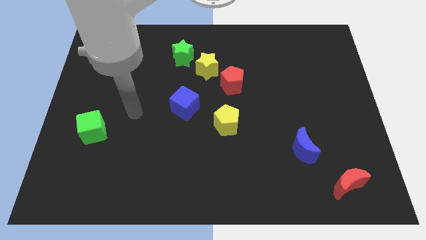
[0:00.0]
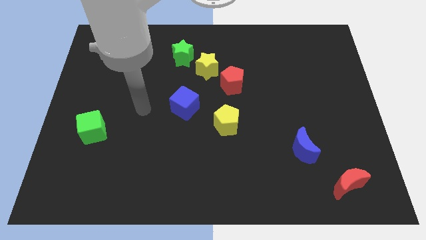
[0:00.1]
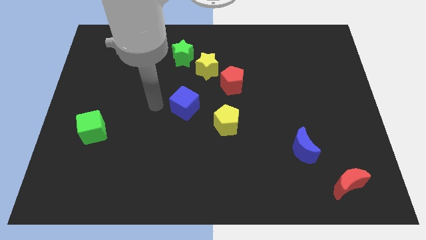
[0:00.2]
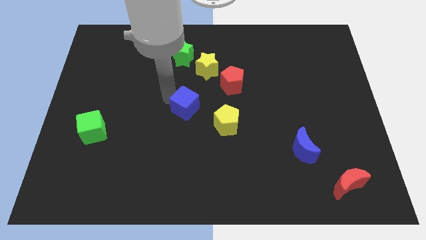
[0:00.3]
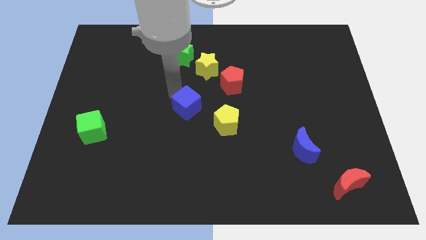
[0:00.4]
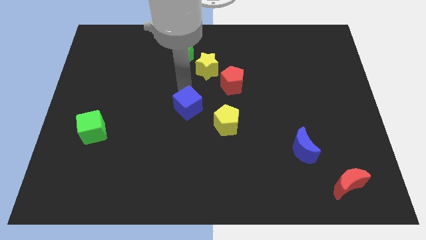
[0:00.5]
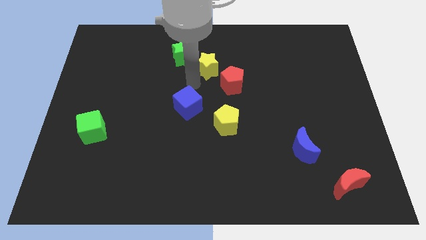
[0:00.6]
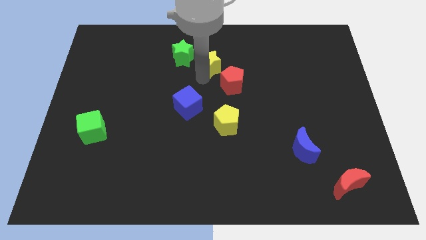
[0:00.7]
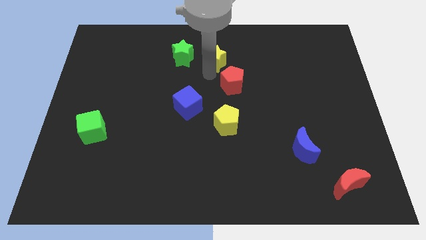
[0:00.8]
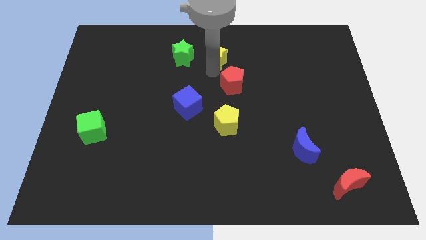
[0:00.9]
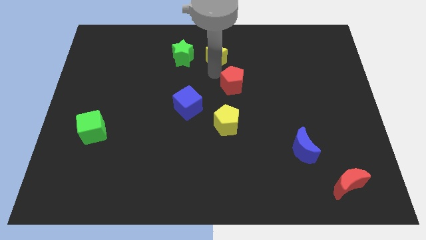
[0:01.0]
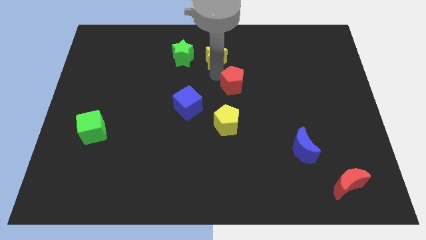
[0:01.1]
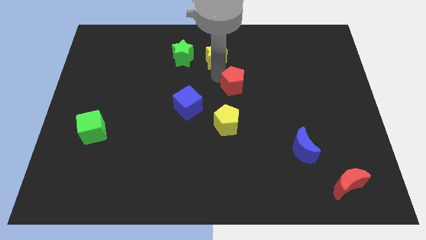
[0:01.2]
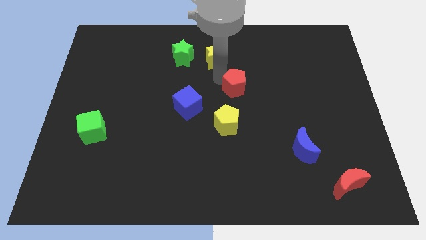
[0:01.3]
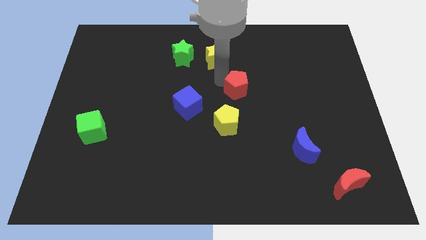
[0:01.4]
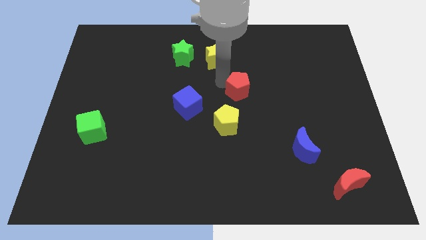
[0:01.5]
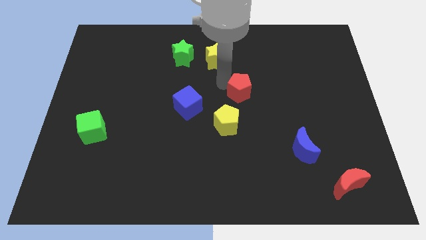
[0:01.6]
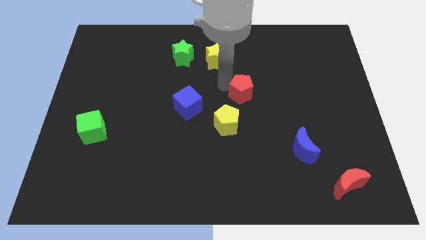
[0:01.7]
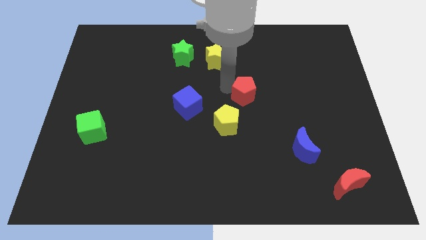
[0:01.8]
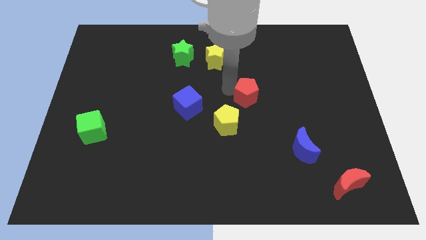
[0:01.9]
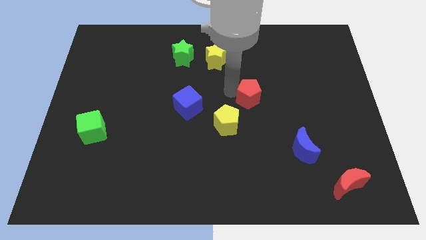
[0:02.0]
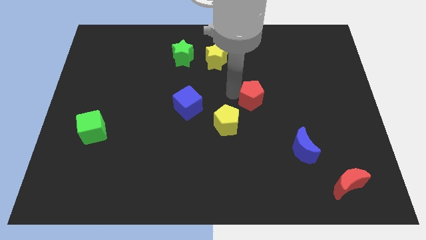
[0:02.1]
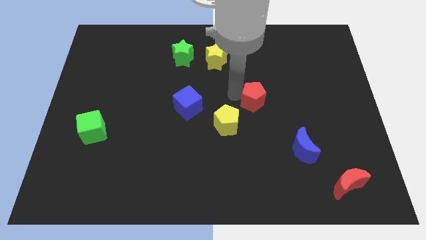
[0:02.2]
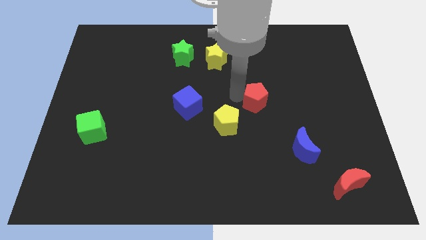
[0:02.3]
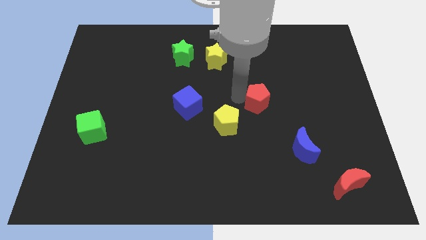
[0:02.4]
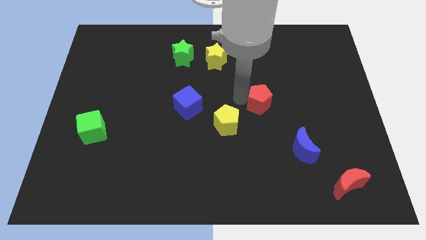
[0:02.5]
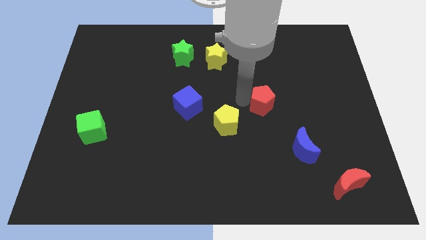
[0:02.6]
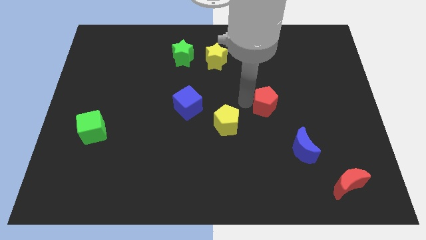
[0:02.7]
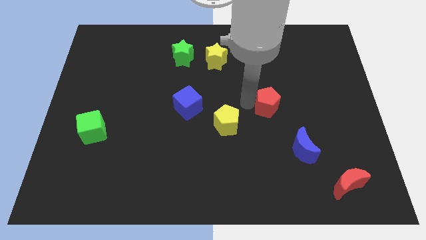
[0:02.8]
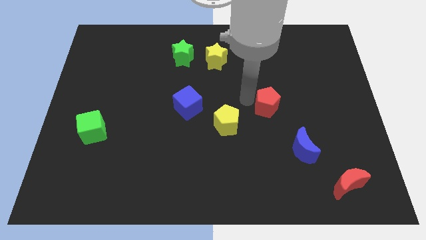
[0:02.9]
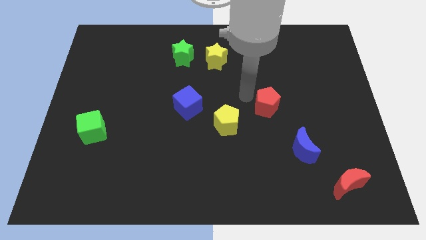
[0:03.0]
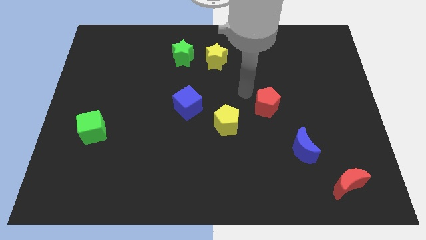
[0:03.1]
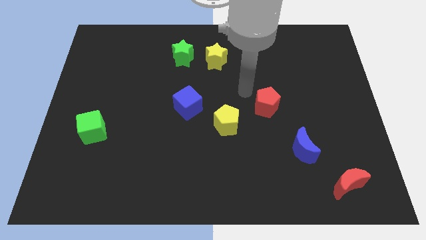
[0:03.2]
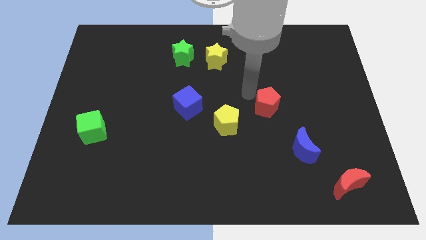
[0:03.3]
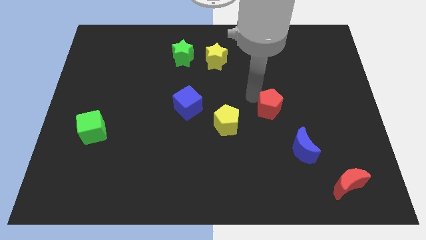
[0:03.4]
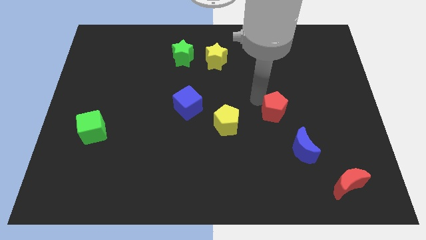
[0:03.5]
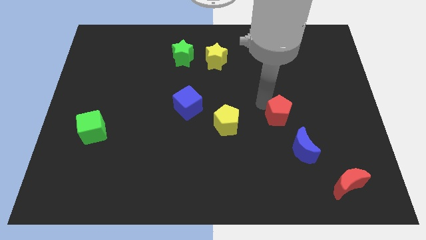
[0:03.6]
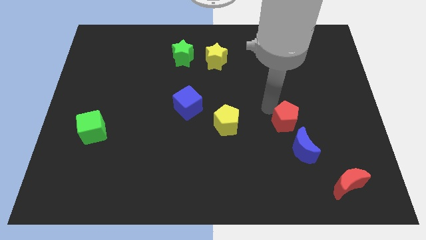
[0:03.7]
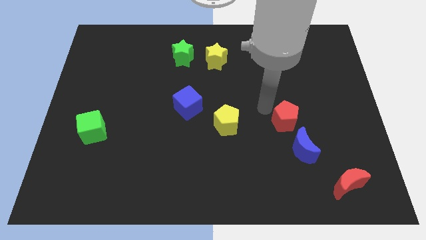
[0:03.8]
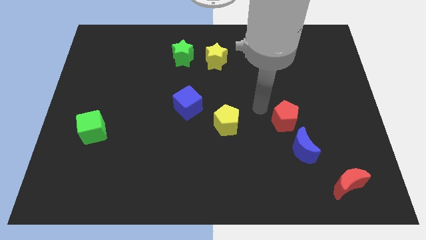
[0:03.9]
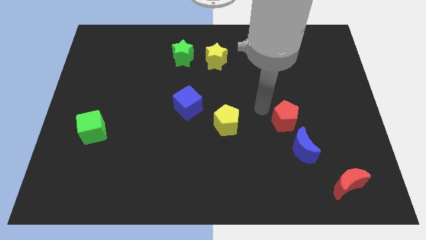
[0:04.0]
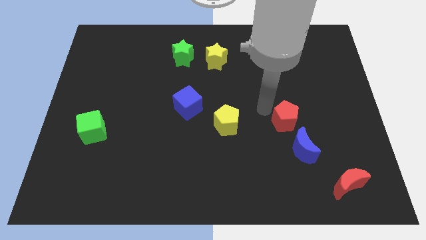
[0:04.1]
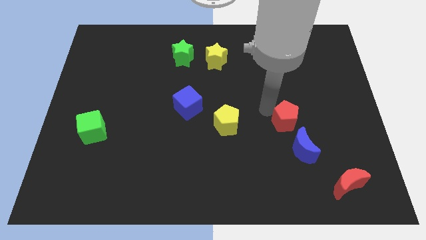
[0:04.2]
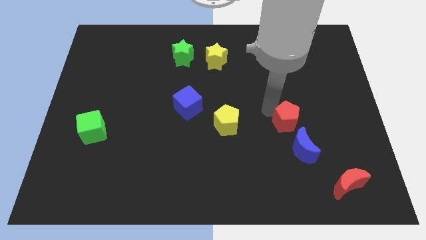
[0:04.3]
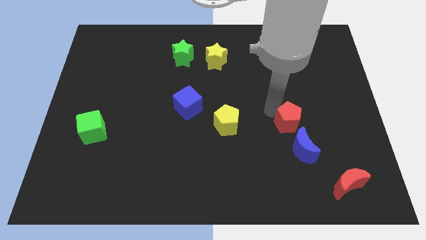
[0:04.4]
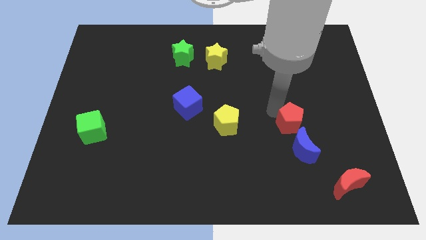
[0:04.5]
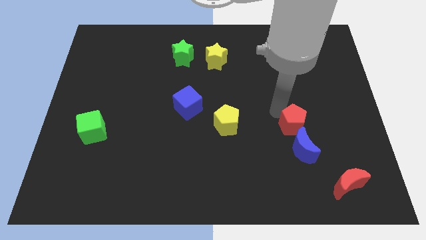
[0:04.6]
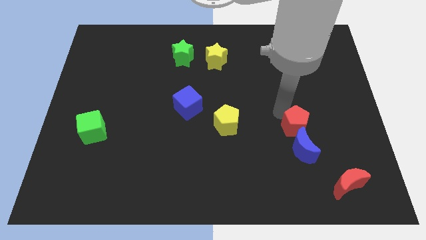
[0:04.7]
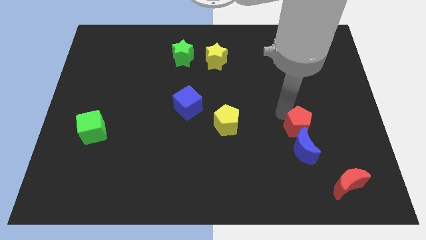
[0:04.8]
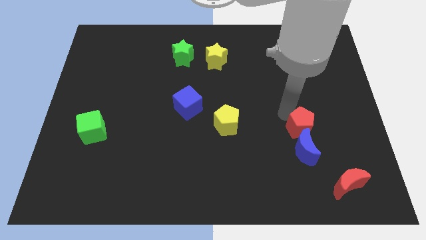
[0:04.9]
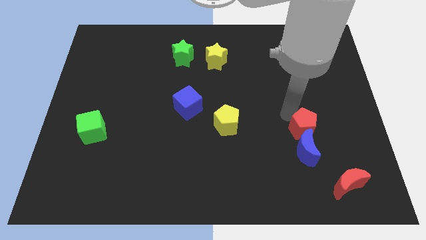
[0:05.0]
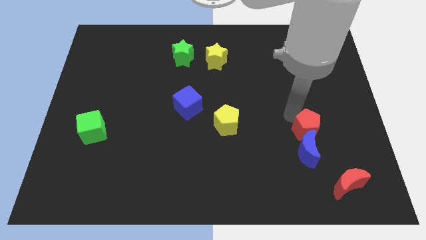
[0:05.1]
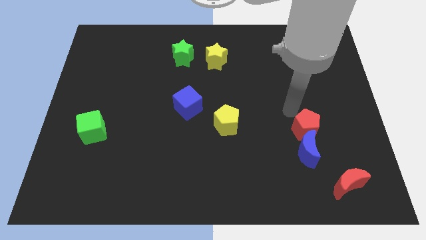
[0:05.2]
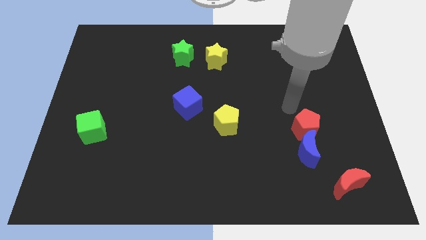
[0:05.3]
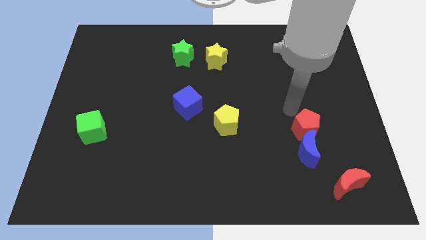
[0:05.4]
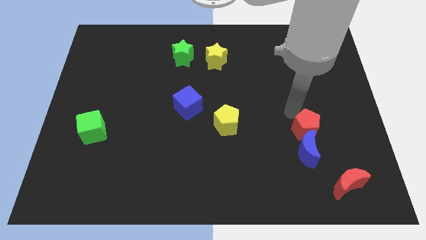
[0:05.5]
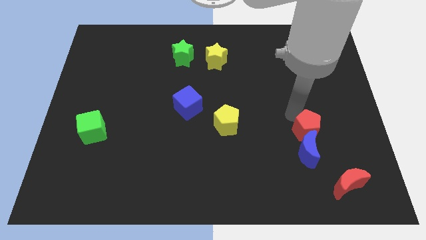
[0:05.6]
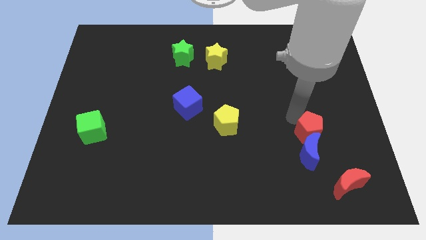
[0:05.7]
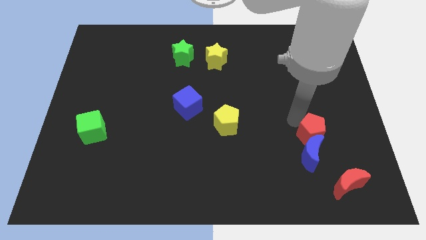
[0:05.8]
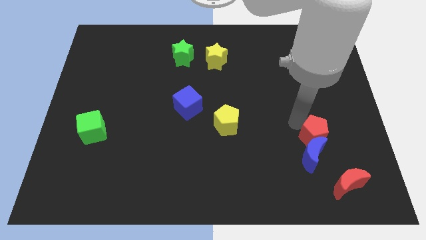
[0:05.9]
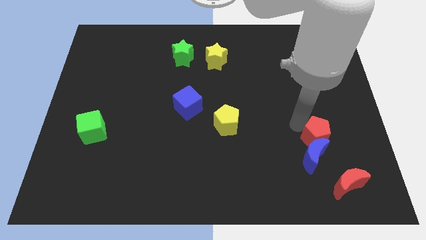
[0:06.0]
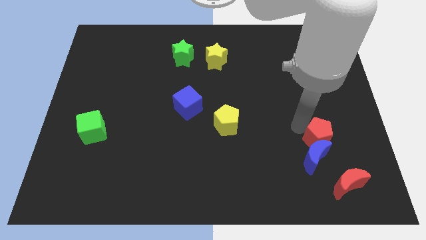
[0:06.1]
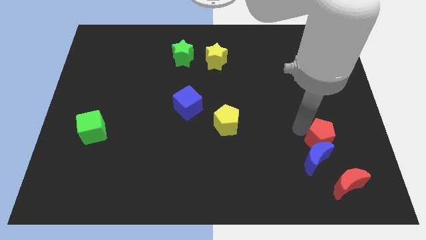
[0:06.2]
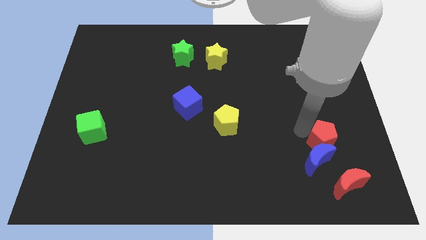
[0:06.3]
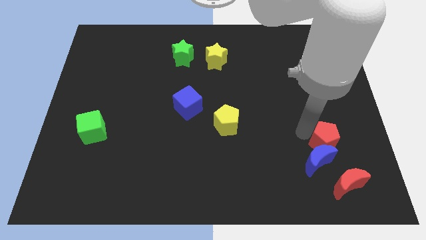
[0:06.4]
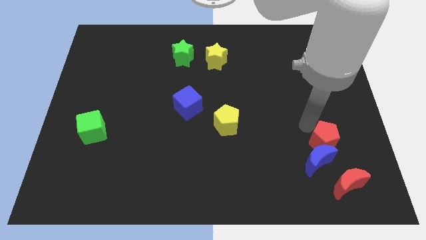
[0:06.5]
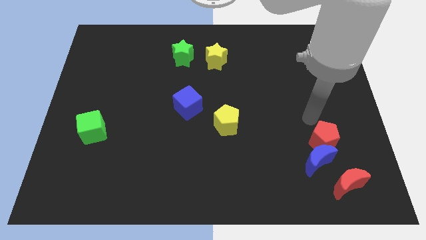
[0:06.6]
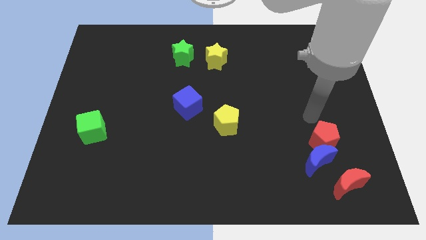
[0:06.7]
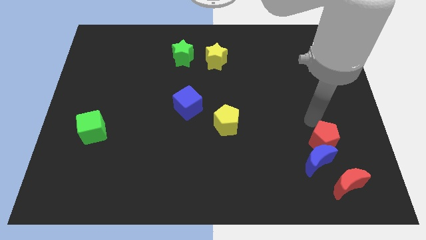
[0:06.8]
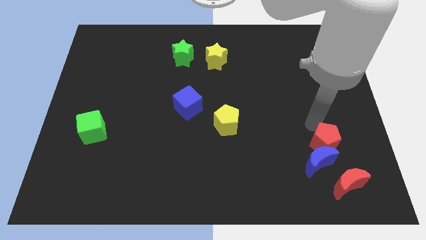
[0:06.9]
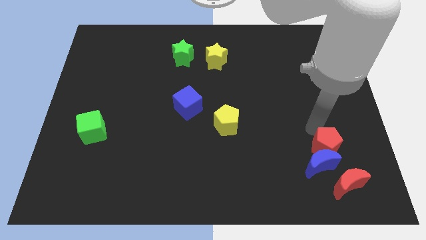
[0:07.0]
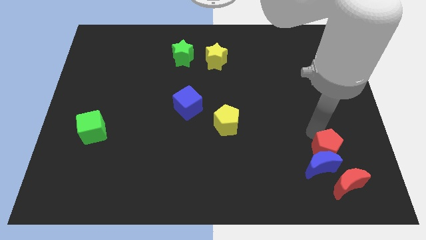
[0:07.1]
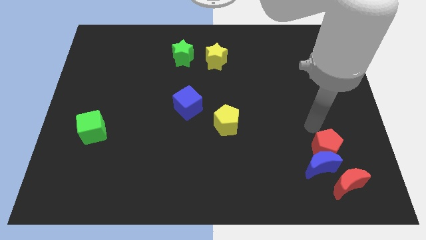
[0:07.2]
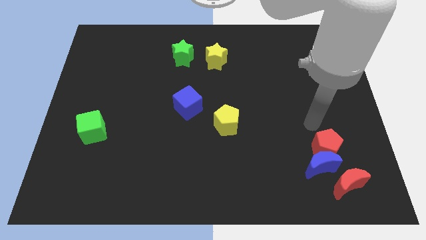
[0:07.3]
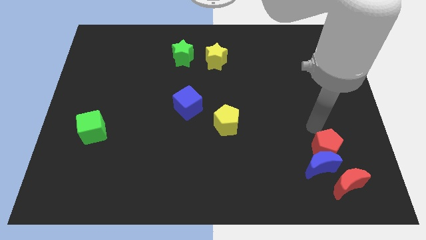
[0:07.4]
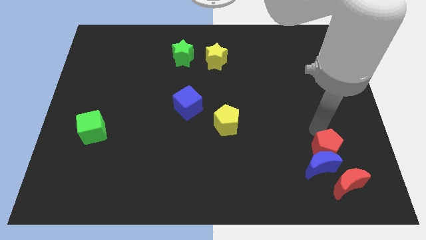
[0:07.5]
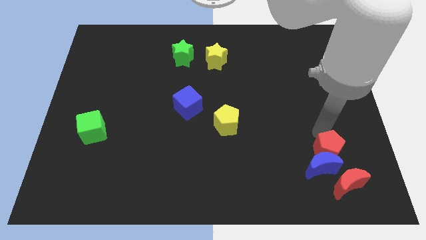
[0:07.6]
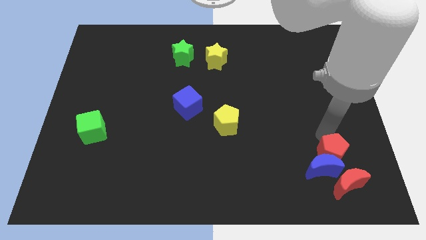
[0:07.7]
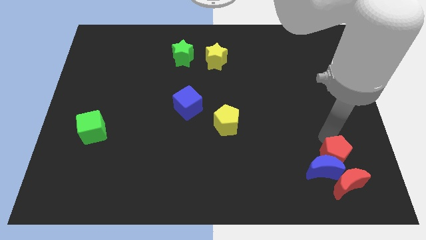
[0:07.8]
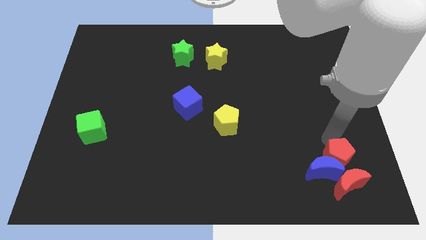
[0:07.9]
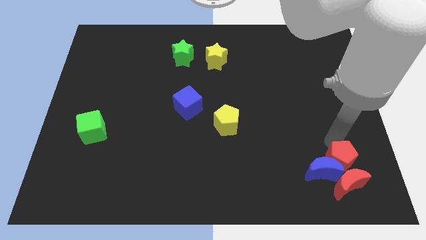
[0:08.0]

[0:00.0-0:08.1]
push the red pentagon to the red moon
